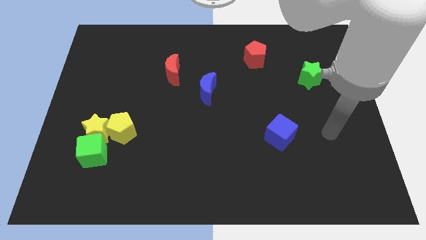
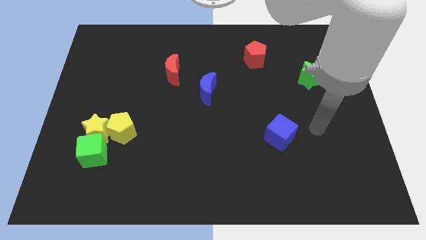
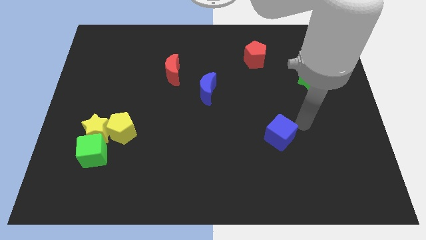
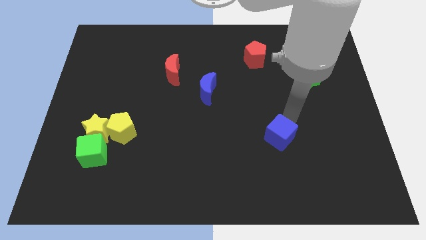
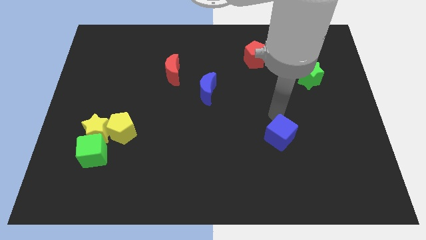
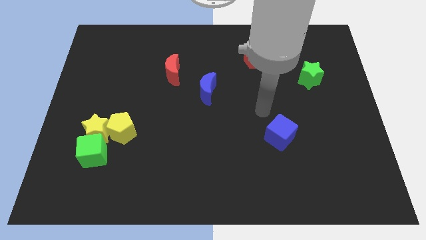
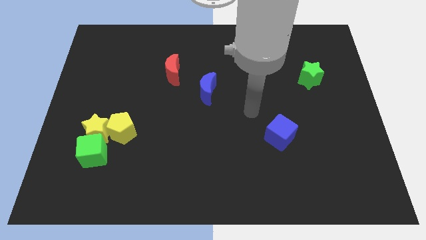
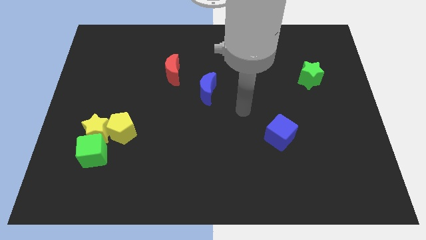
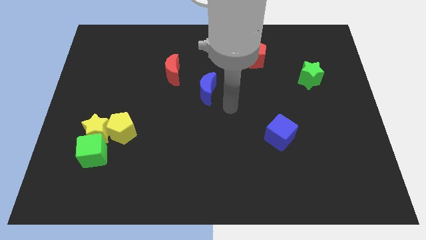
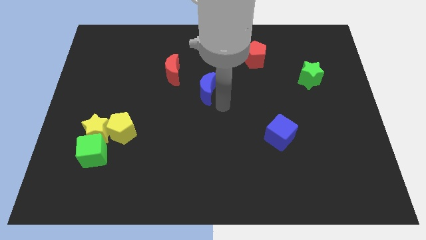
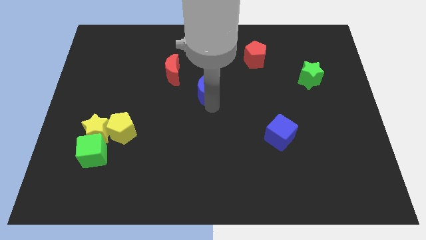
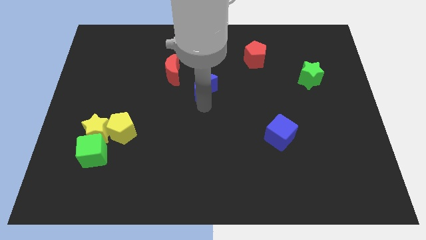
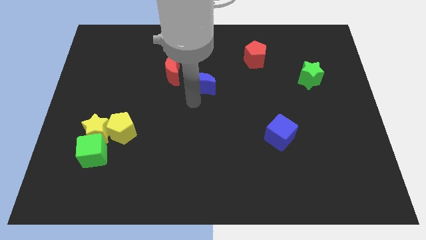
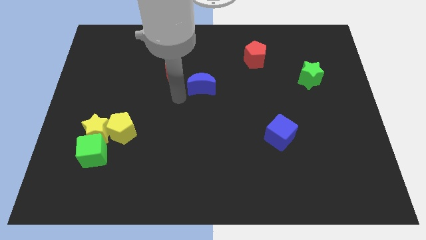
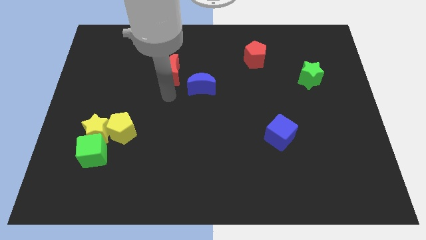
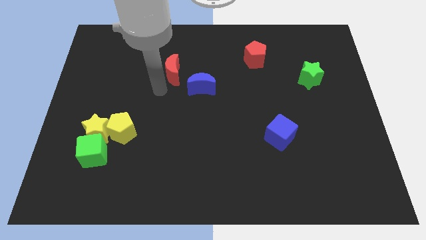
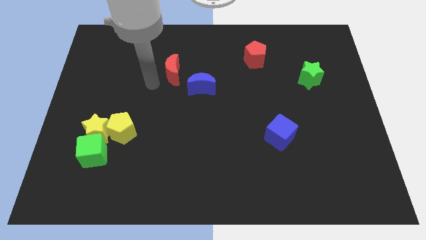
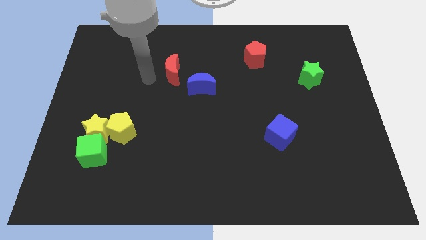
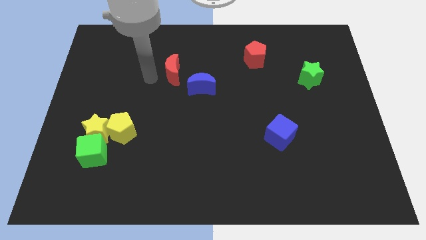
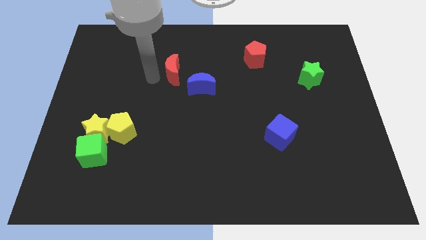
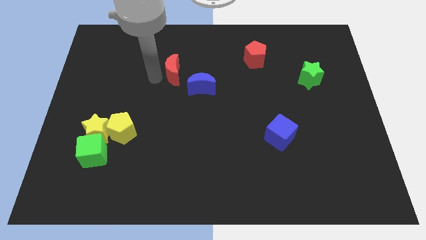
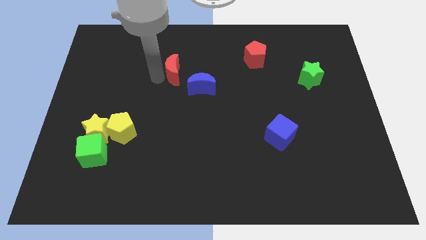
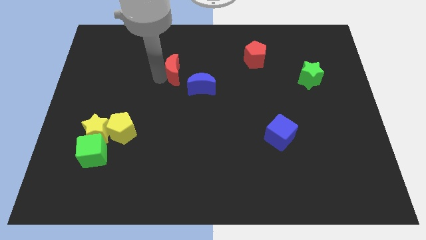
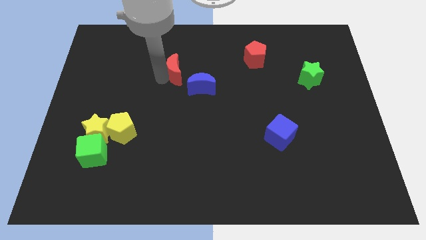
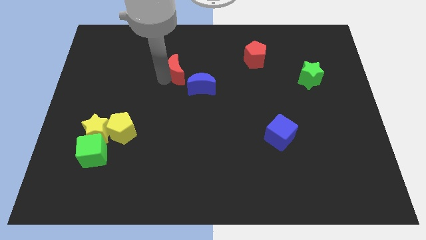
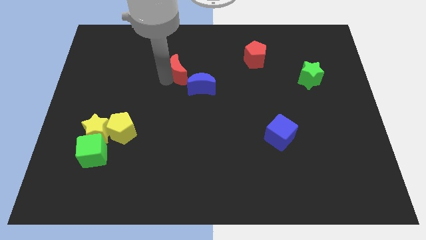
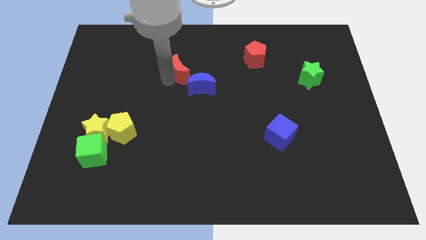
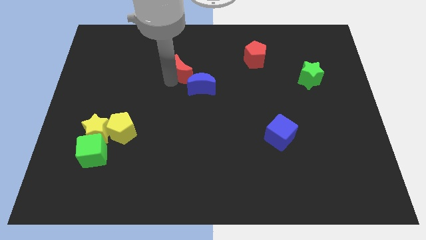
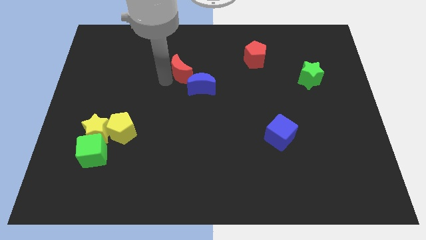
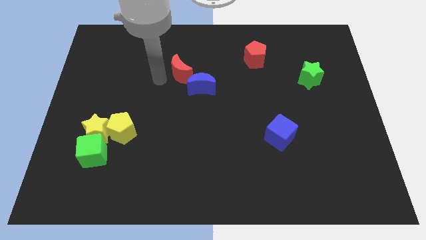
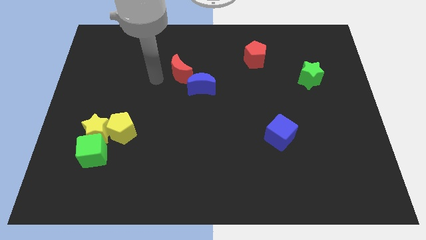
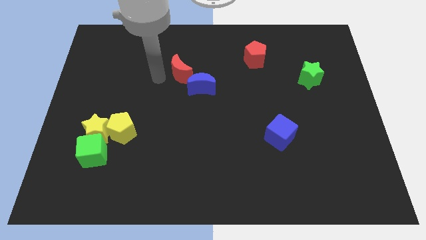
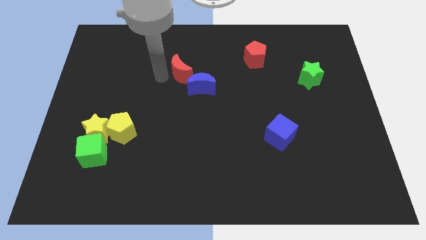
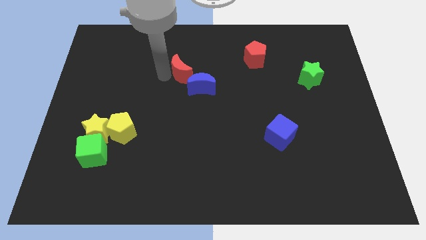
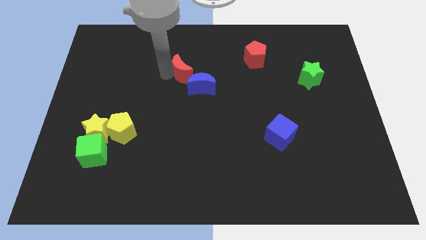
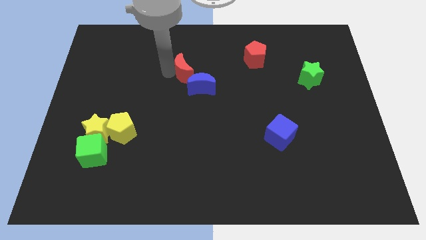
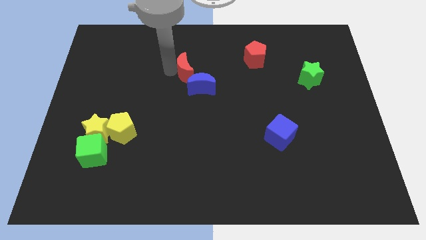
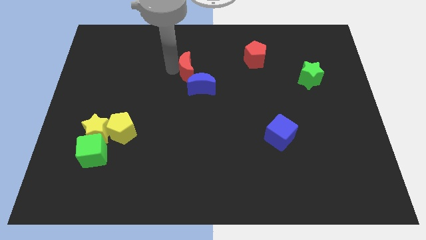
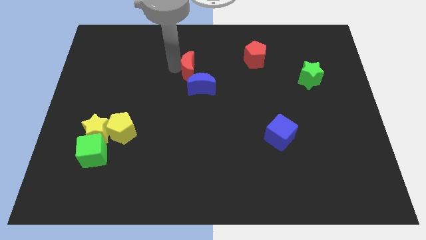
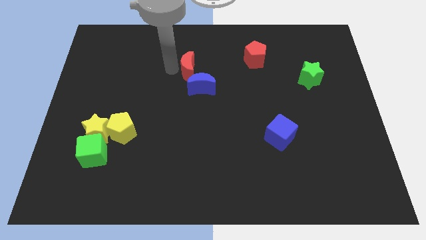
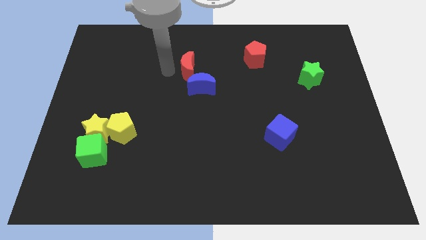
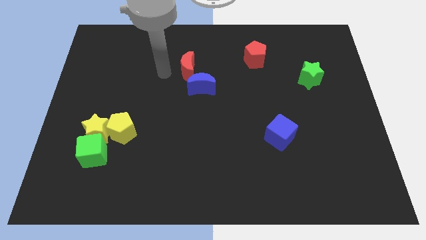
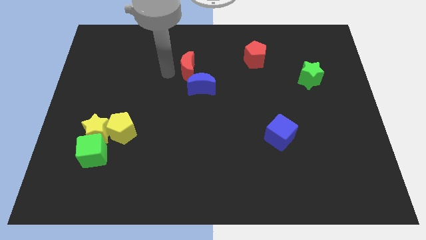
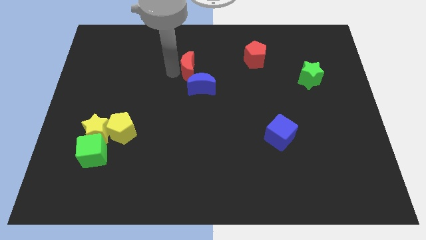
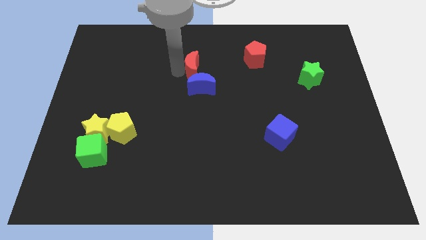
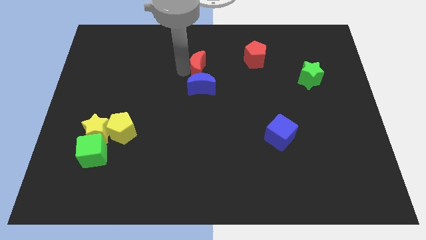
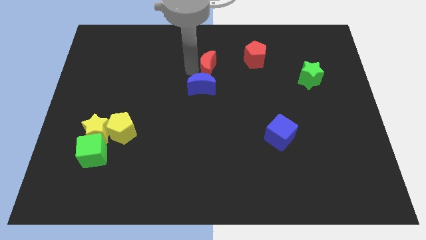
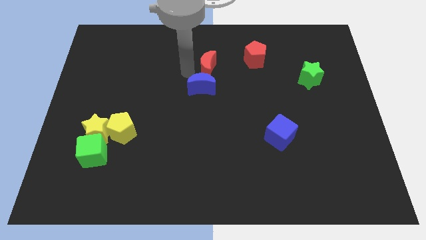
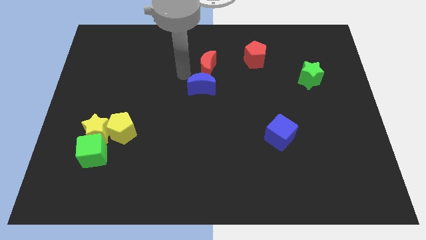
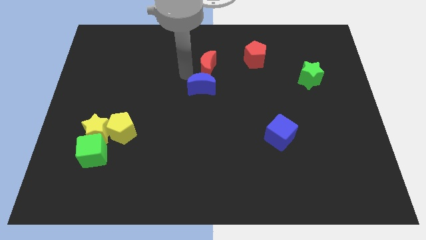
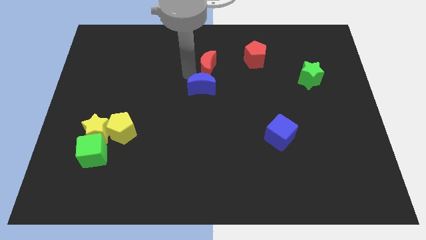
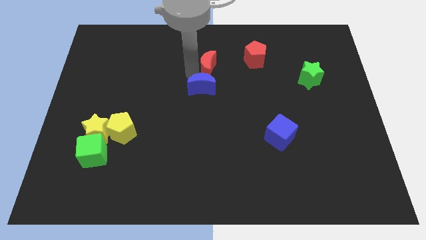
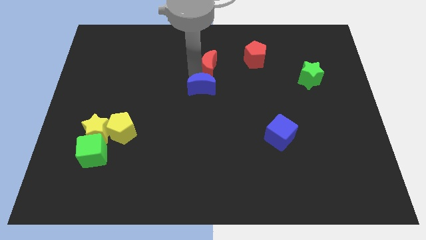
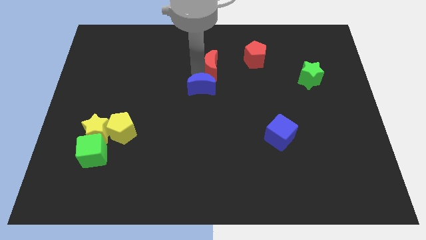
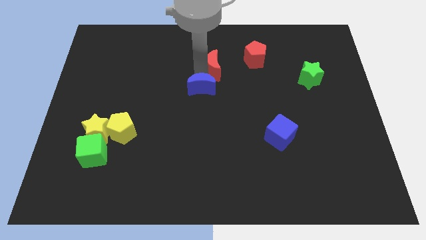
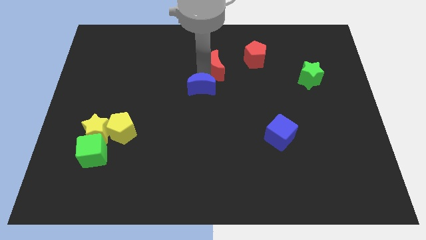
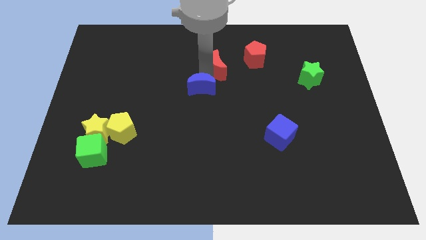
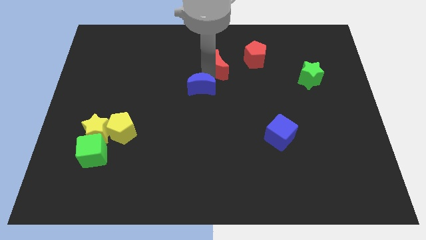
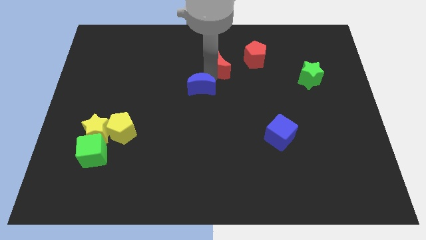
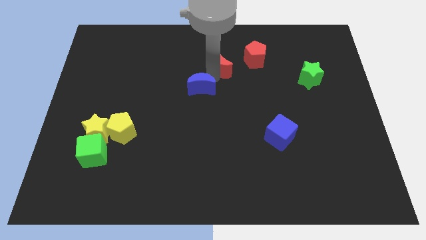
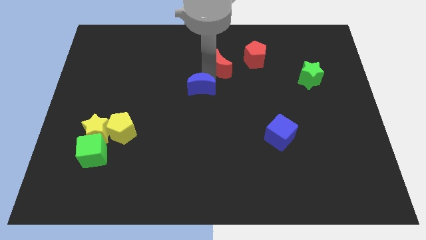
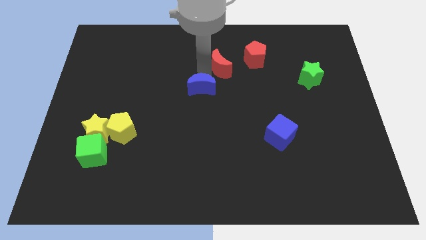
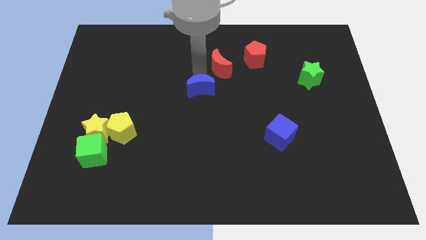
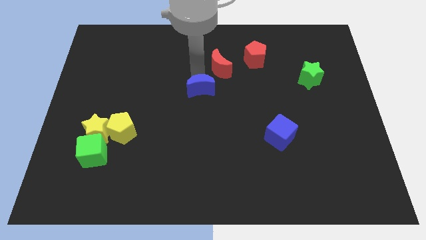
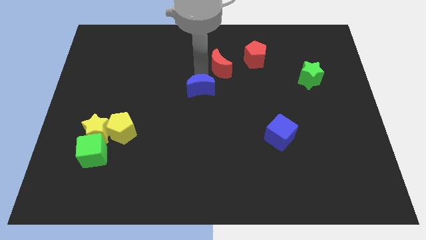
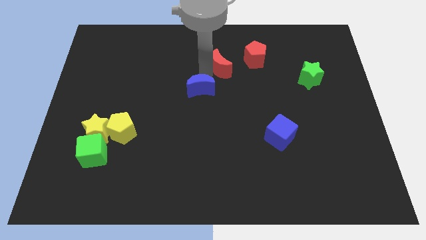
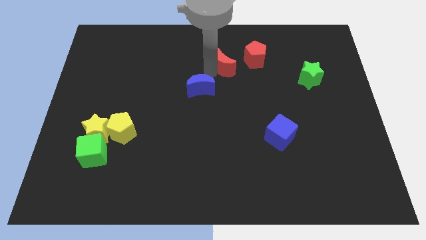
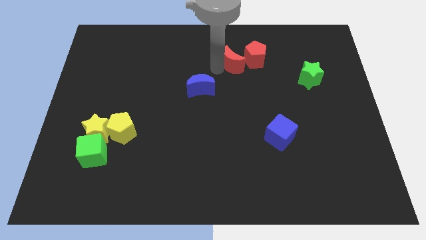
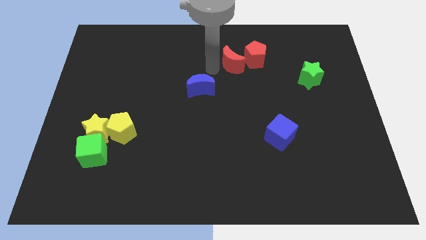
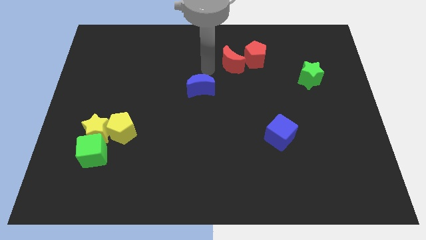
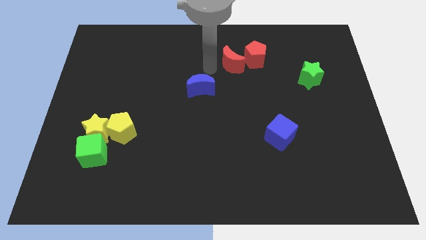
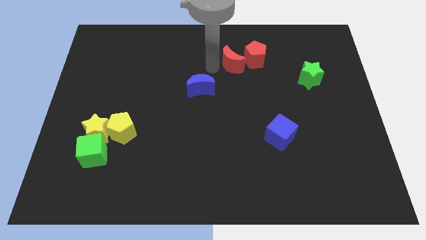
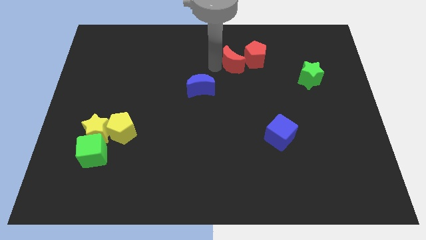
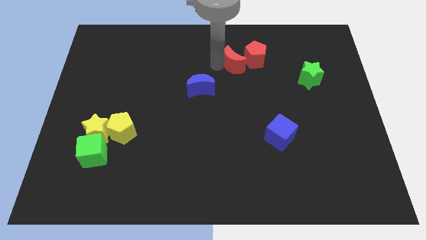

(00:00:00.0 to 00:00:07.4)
put the red moon close to the red pentagon
